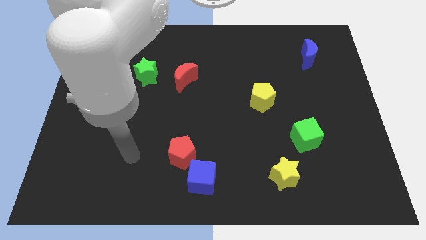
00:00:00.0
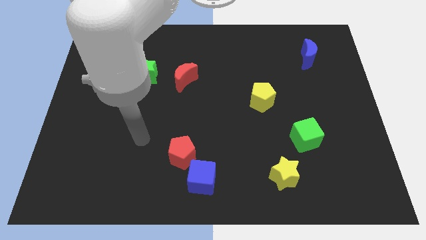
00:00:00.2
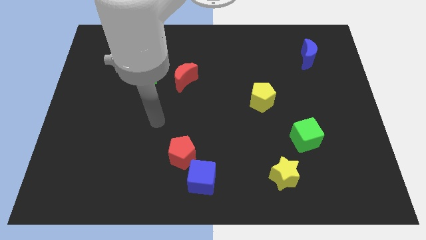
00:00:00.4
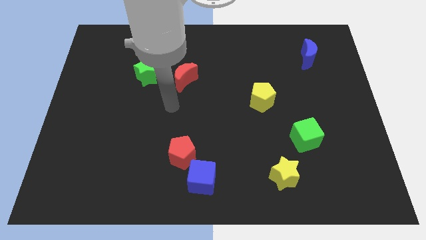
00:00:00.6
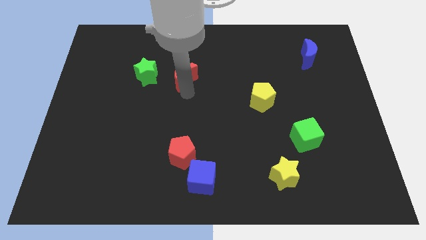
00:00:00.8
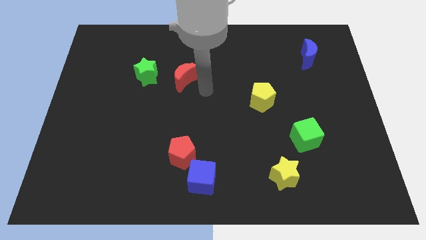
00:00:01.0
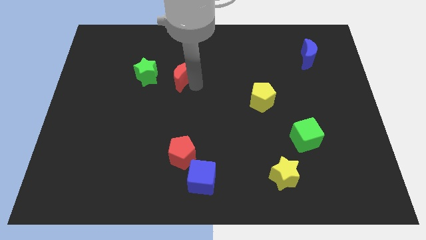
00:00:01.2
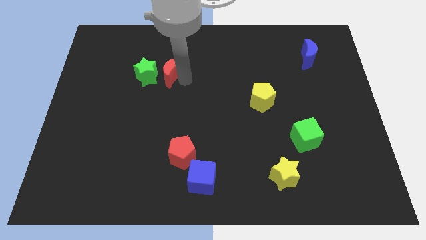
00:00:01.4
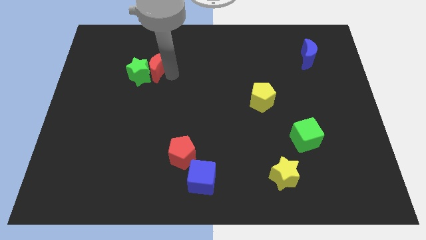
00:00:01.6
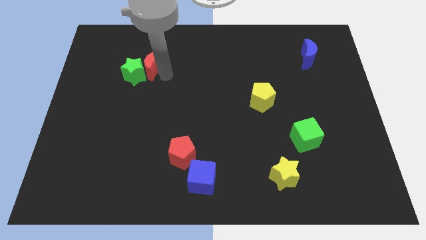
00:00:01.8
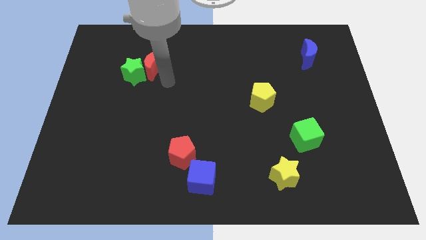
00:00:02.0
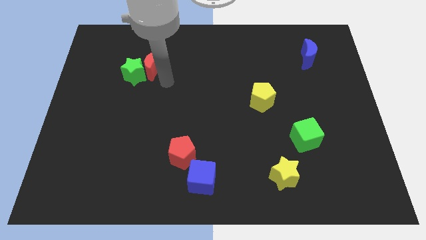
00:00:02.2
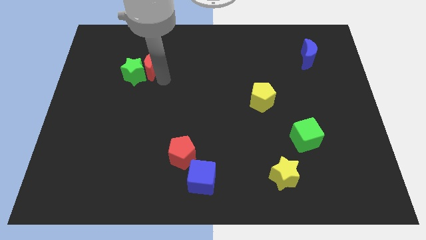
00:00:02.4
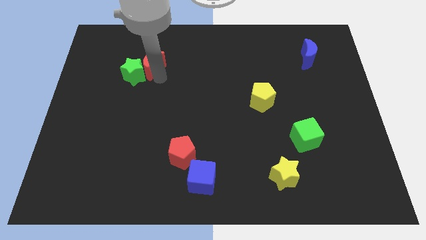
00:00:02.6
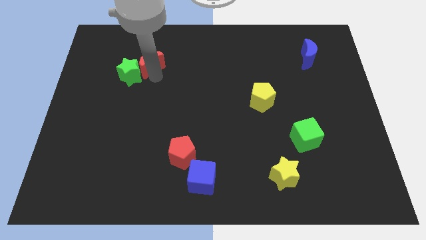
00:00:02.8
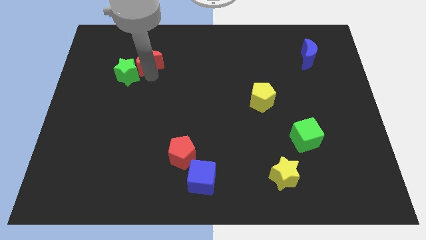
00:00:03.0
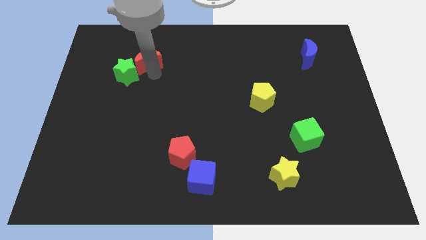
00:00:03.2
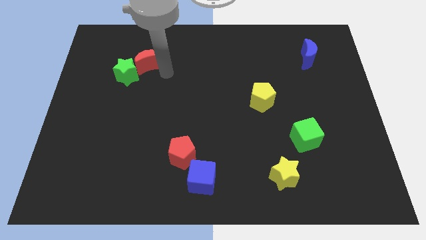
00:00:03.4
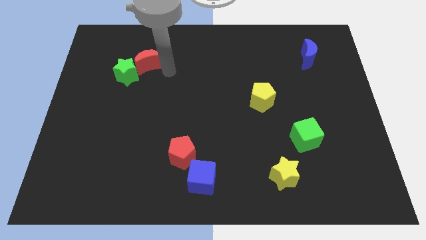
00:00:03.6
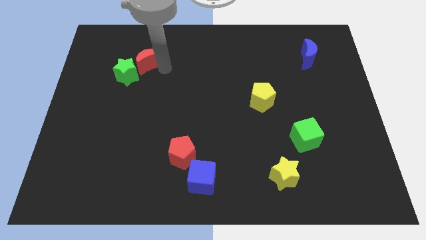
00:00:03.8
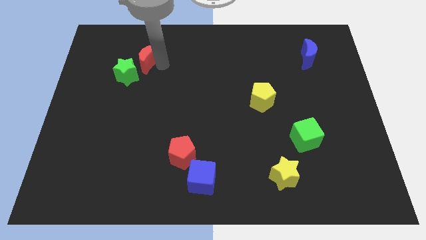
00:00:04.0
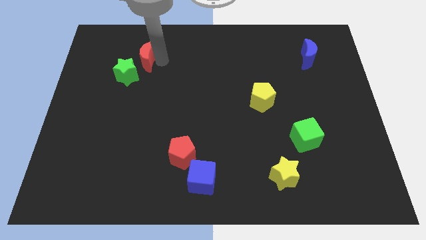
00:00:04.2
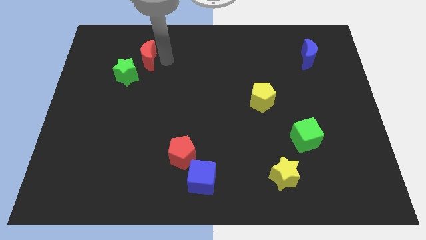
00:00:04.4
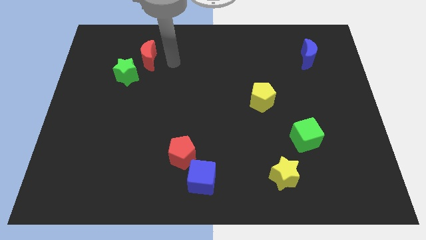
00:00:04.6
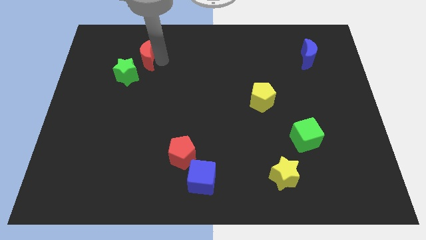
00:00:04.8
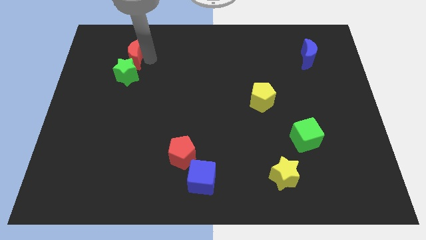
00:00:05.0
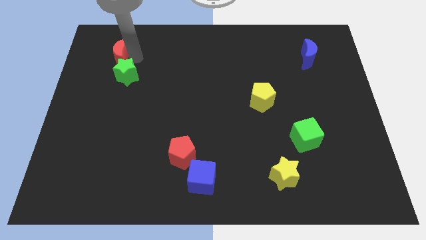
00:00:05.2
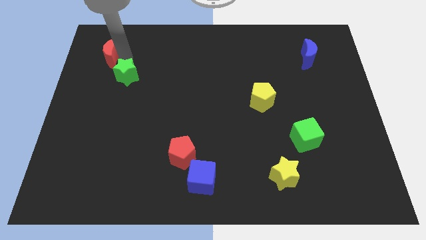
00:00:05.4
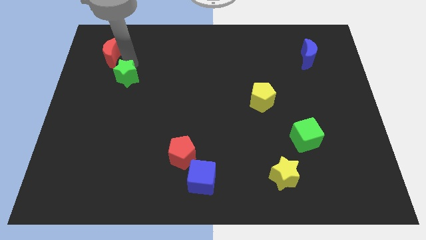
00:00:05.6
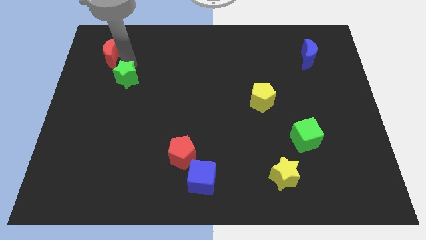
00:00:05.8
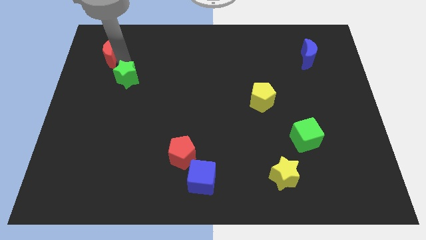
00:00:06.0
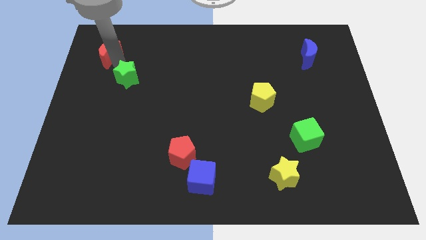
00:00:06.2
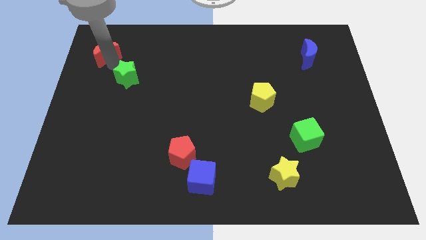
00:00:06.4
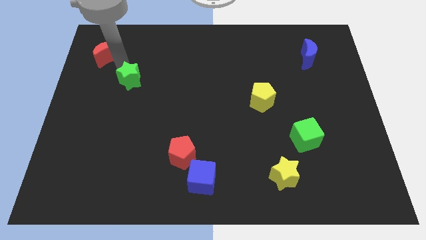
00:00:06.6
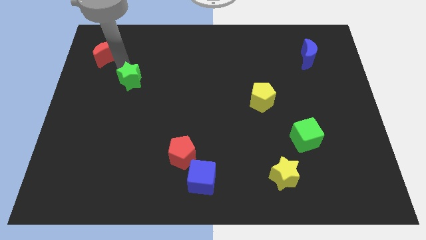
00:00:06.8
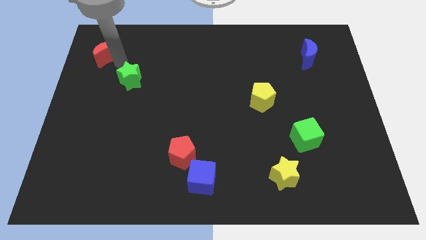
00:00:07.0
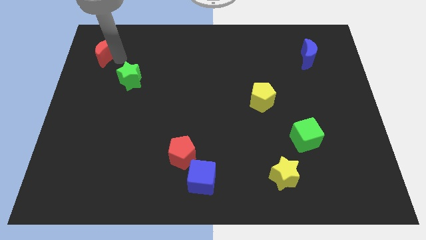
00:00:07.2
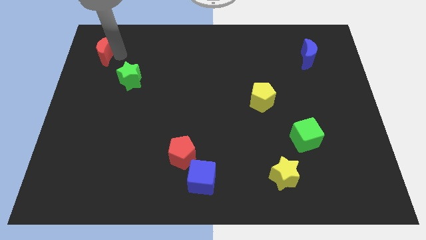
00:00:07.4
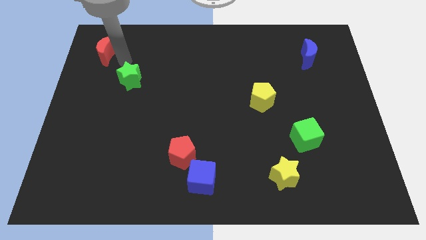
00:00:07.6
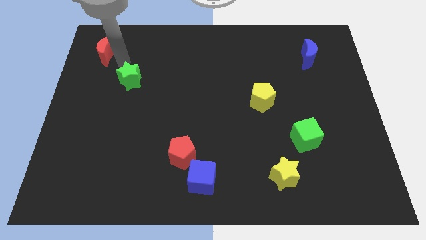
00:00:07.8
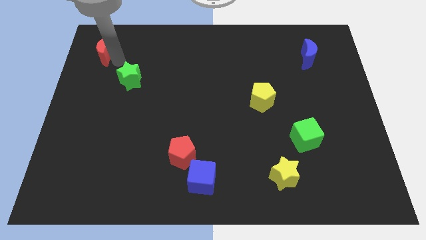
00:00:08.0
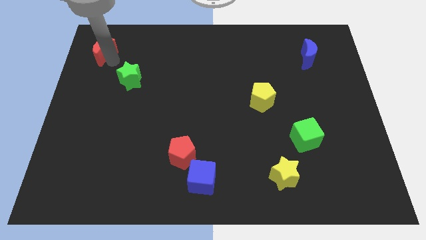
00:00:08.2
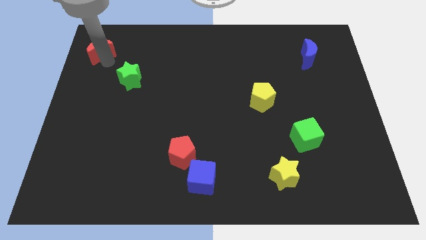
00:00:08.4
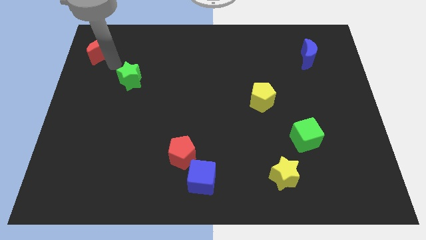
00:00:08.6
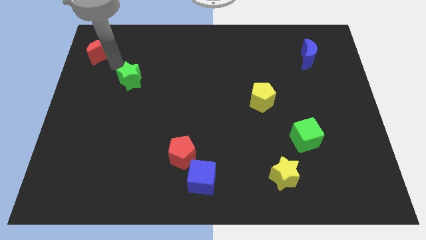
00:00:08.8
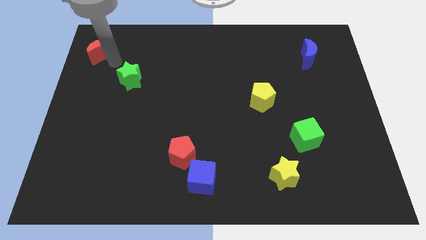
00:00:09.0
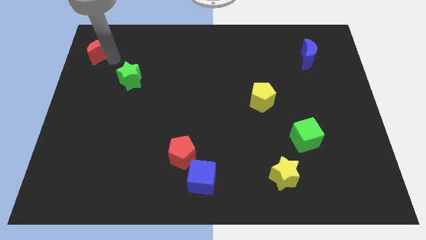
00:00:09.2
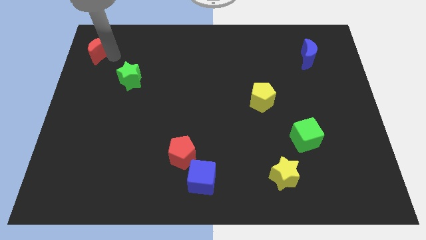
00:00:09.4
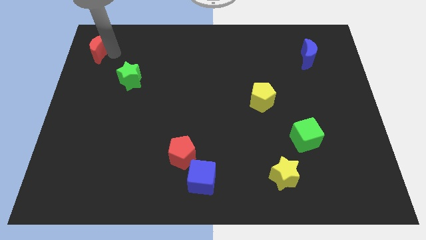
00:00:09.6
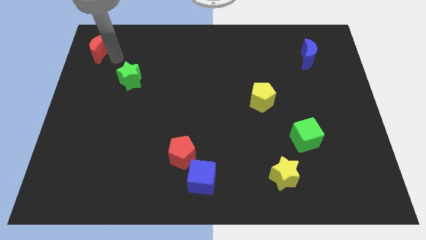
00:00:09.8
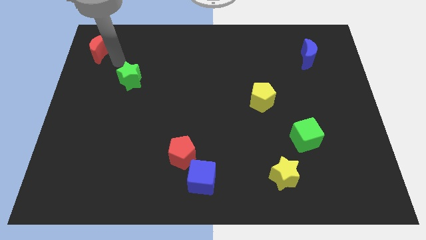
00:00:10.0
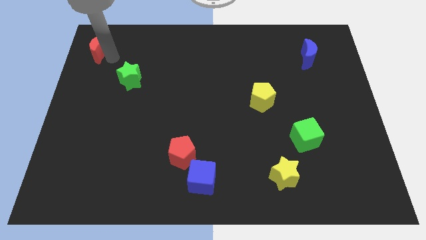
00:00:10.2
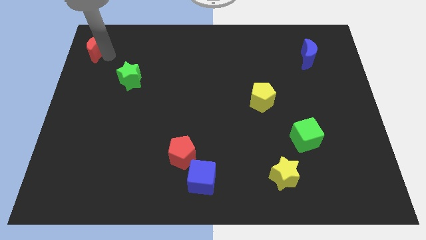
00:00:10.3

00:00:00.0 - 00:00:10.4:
push the red moon to the top left
